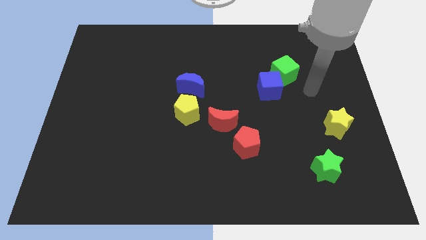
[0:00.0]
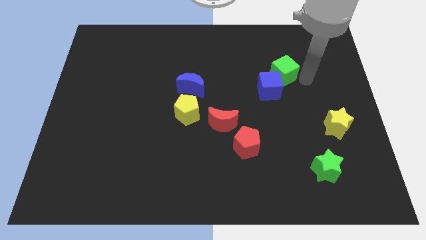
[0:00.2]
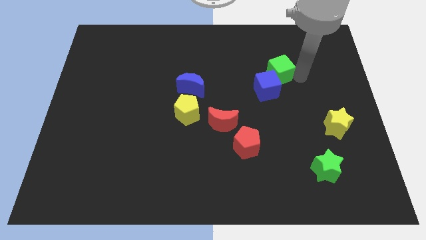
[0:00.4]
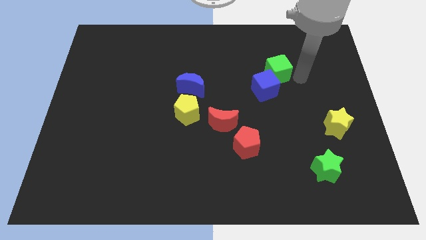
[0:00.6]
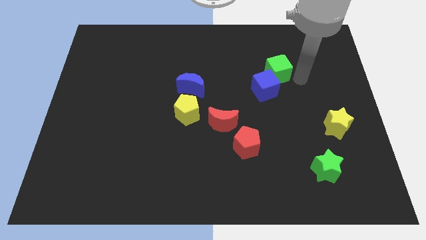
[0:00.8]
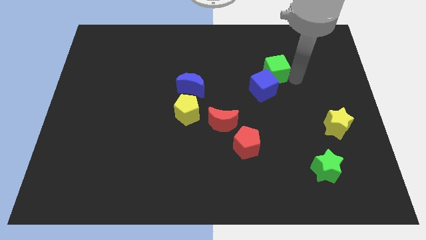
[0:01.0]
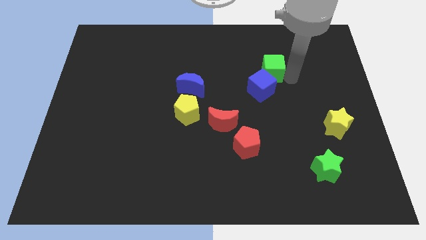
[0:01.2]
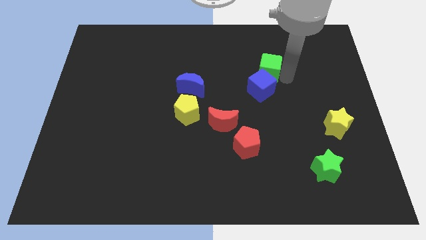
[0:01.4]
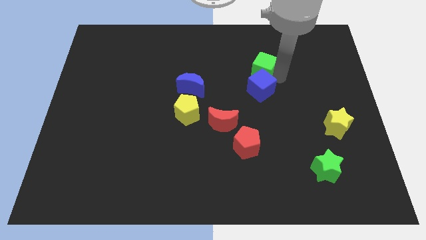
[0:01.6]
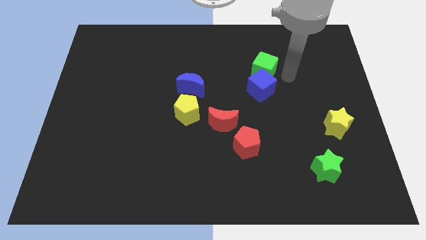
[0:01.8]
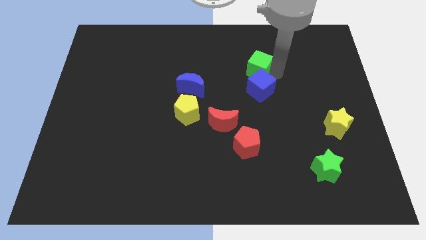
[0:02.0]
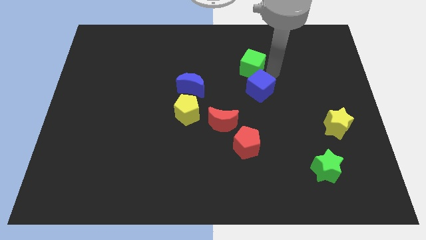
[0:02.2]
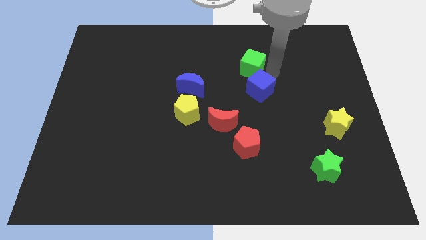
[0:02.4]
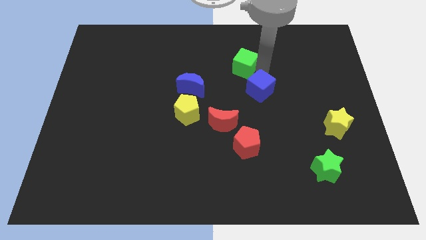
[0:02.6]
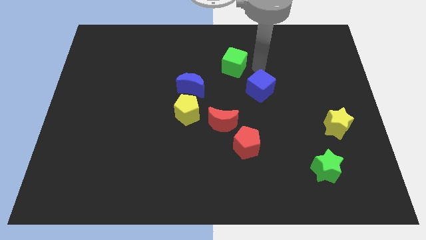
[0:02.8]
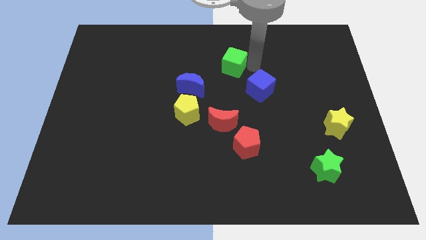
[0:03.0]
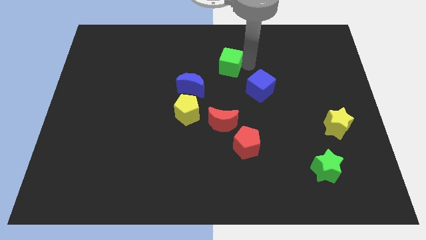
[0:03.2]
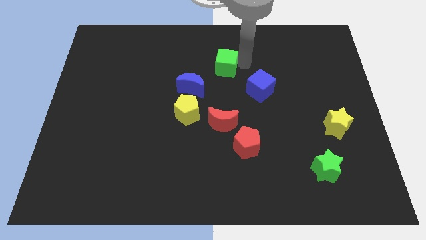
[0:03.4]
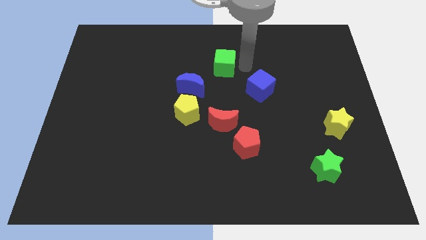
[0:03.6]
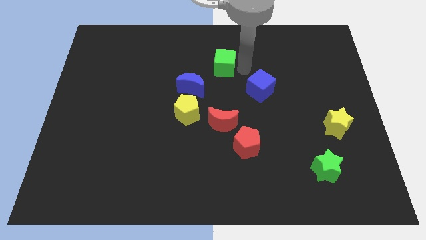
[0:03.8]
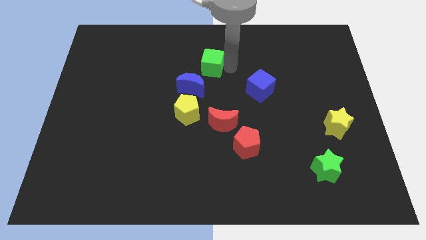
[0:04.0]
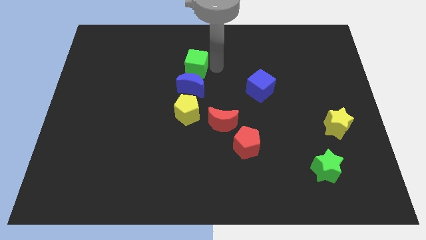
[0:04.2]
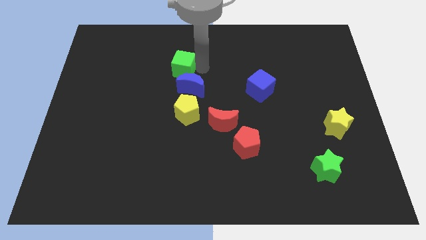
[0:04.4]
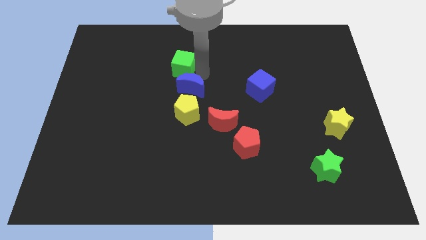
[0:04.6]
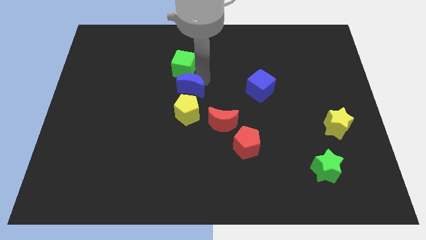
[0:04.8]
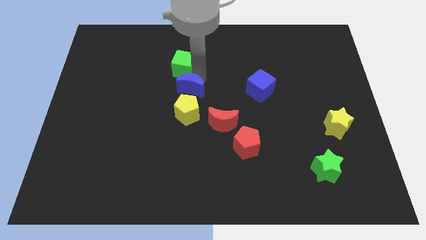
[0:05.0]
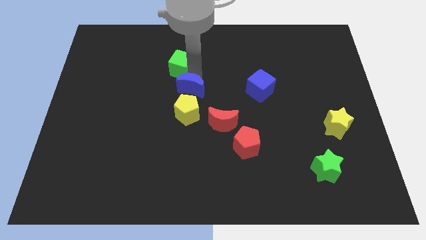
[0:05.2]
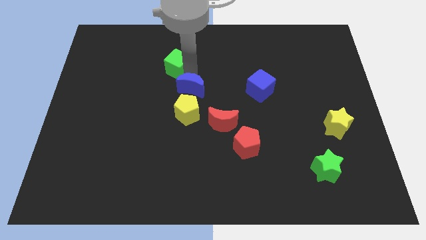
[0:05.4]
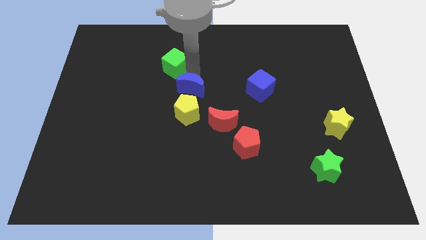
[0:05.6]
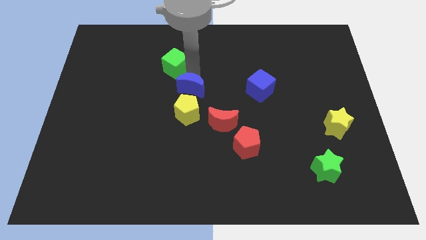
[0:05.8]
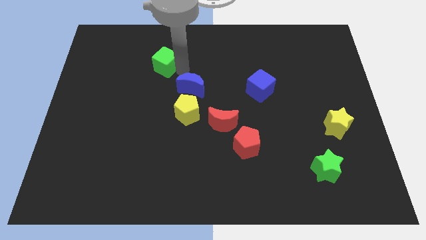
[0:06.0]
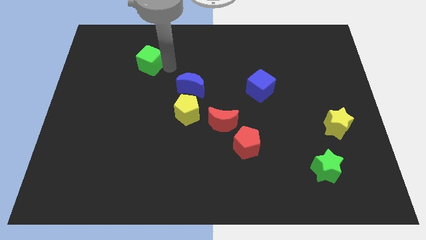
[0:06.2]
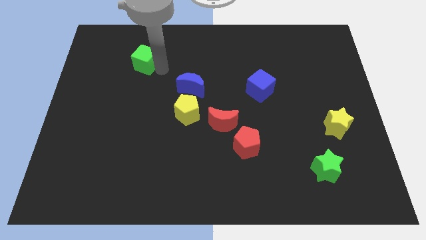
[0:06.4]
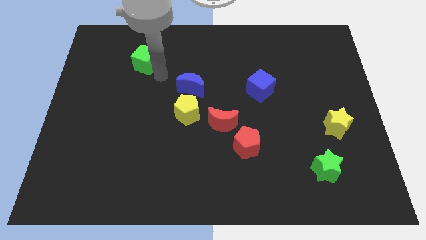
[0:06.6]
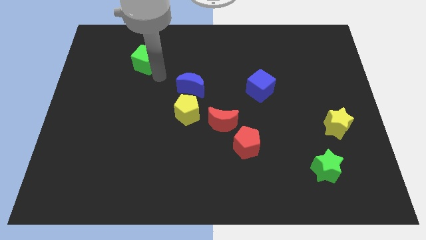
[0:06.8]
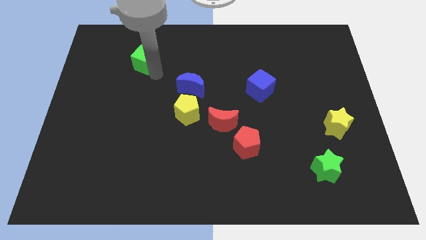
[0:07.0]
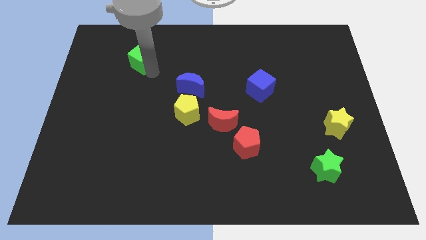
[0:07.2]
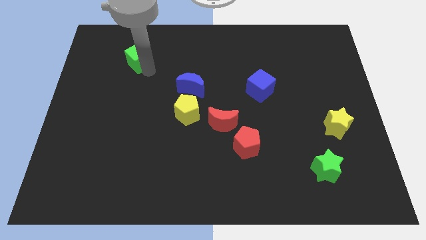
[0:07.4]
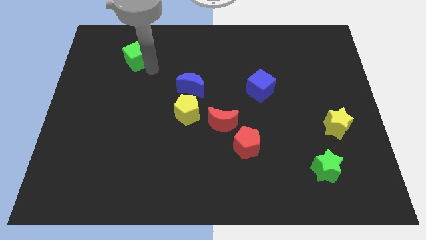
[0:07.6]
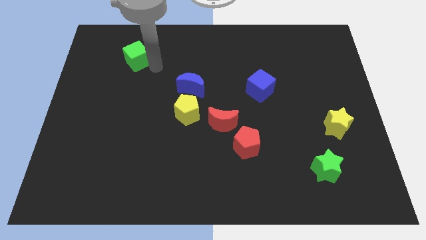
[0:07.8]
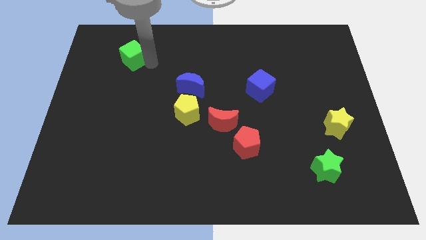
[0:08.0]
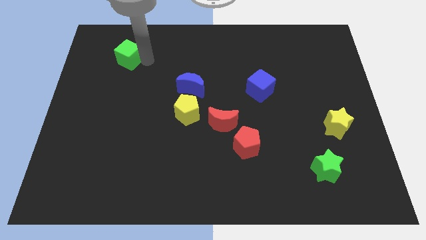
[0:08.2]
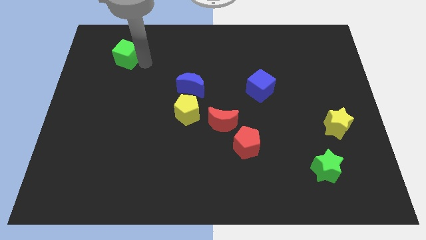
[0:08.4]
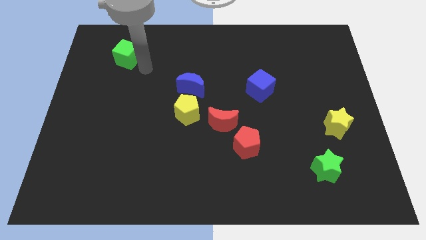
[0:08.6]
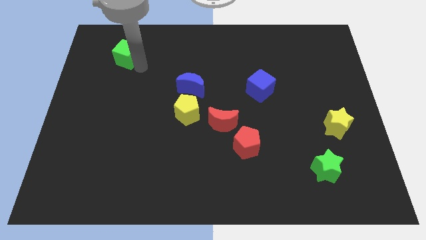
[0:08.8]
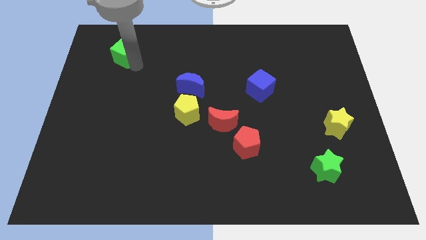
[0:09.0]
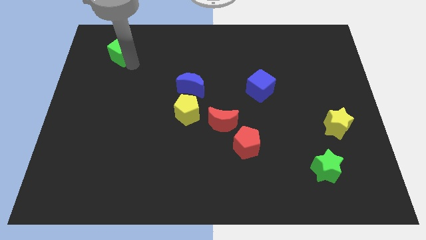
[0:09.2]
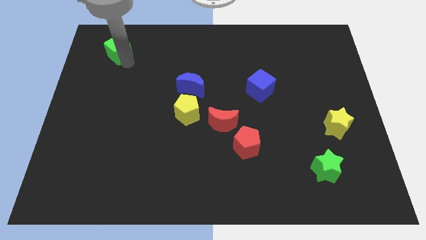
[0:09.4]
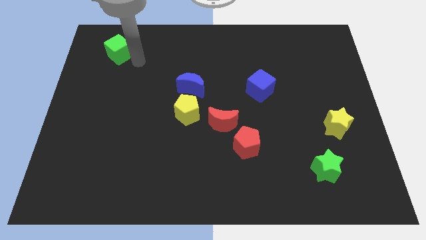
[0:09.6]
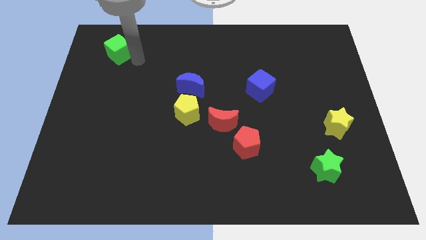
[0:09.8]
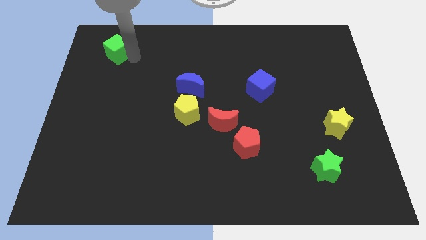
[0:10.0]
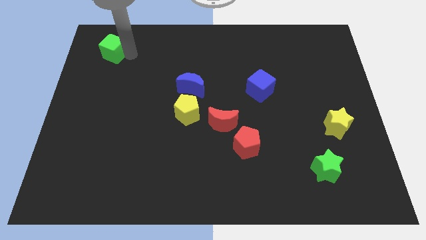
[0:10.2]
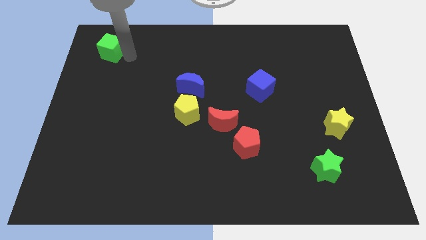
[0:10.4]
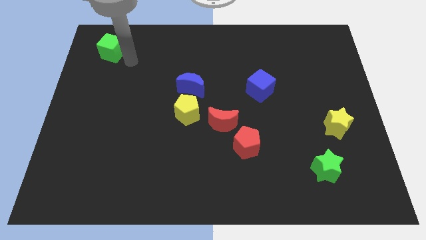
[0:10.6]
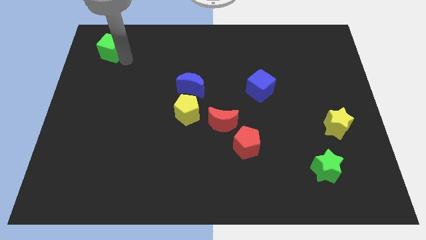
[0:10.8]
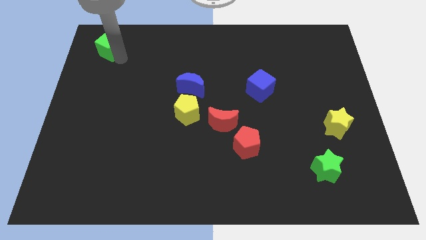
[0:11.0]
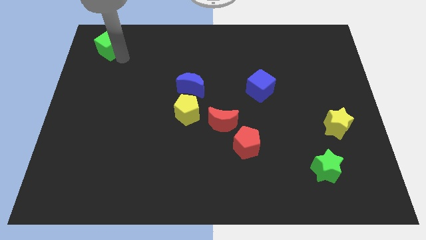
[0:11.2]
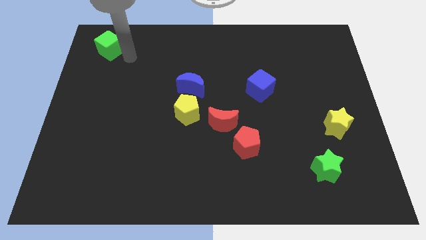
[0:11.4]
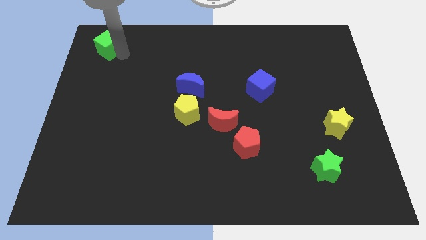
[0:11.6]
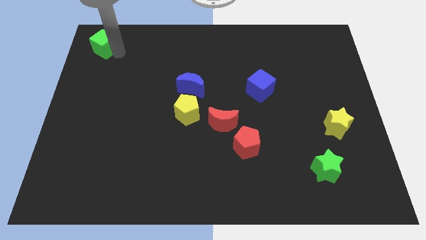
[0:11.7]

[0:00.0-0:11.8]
push the green cube to the top left

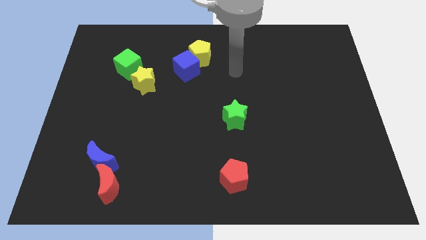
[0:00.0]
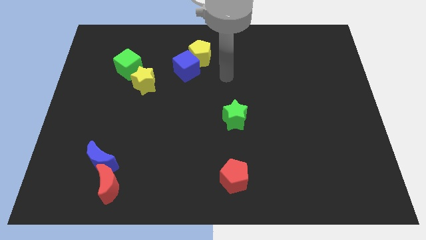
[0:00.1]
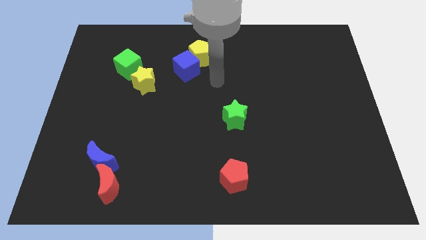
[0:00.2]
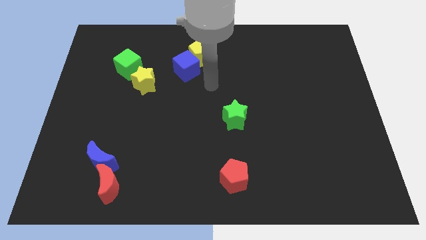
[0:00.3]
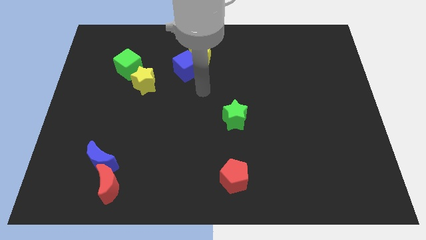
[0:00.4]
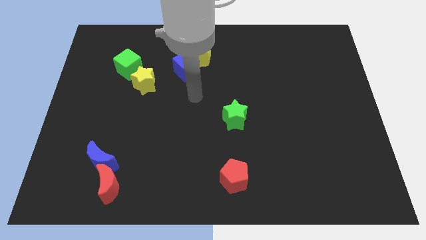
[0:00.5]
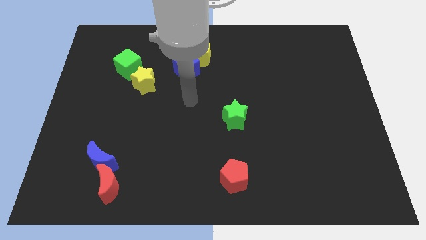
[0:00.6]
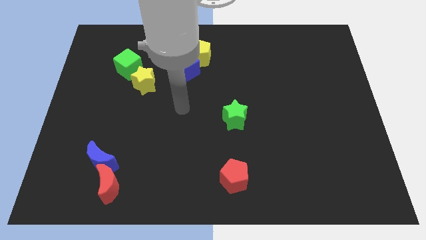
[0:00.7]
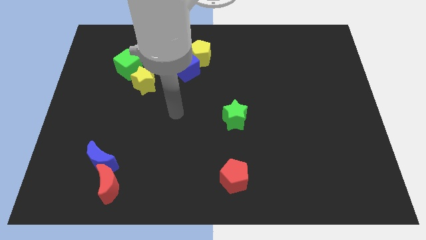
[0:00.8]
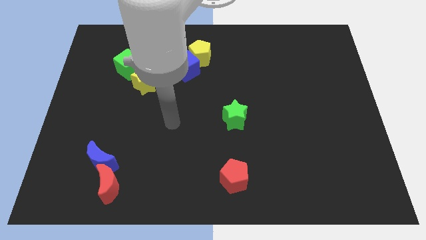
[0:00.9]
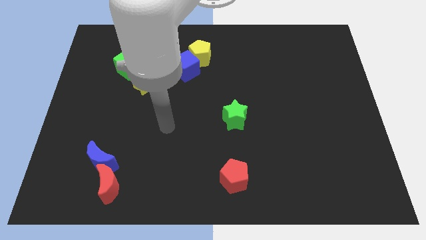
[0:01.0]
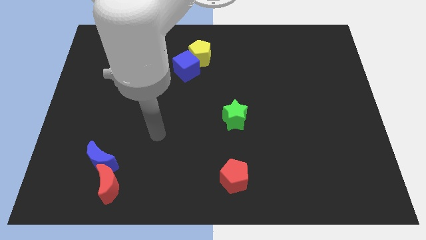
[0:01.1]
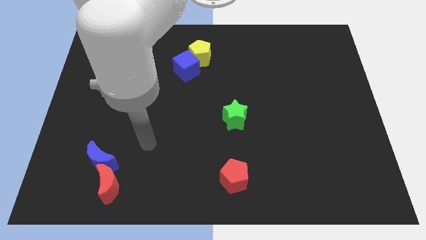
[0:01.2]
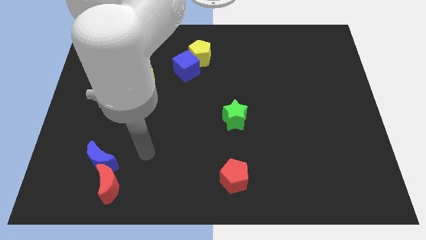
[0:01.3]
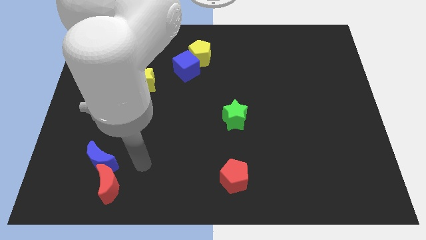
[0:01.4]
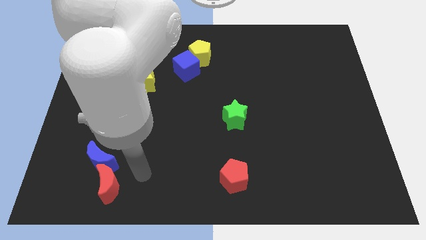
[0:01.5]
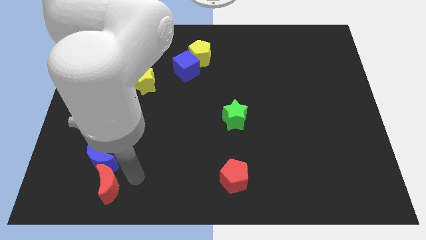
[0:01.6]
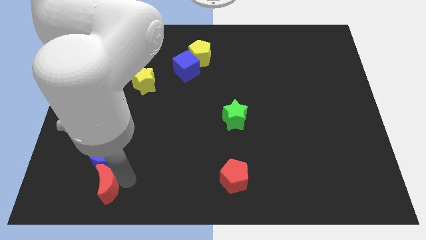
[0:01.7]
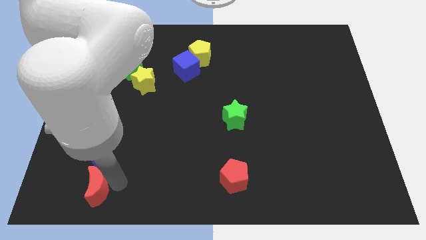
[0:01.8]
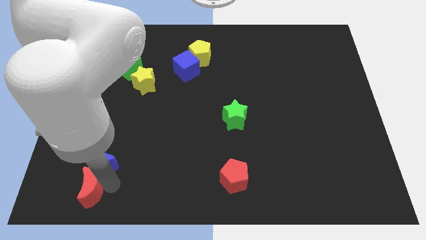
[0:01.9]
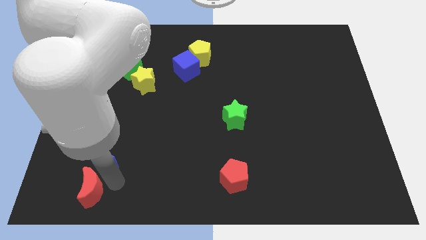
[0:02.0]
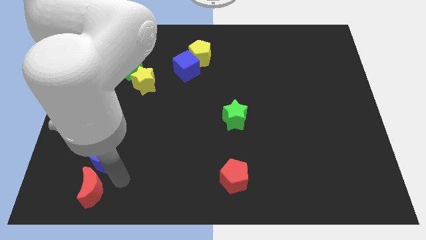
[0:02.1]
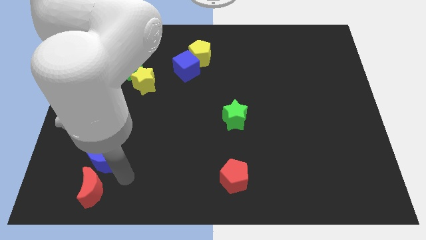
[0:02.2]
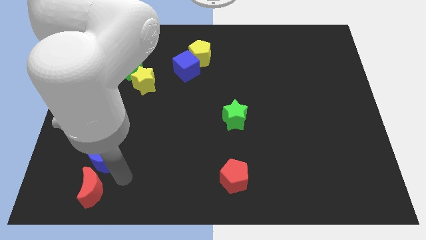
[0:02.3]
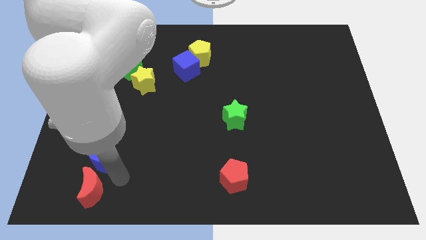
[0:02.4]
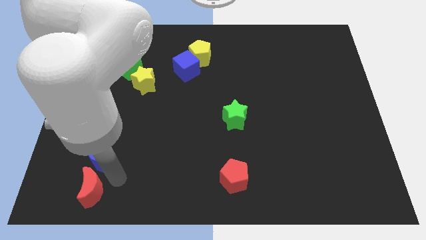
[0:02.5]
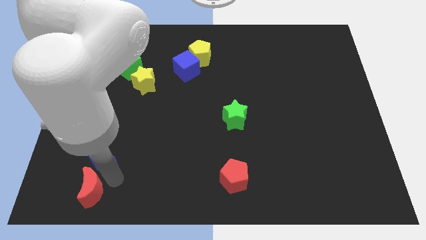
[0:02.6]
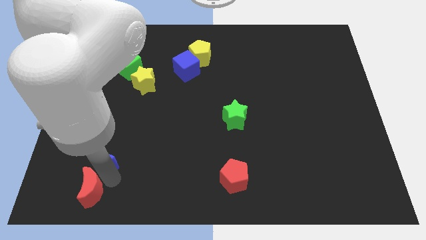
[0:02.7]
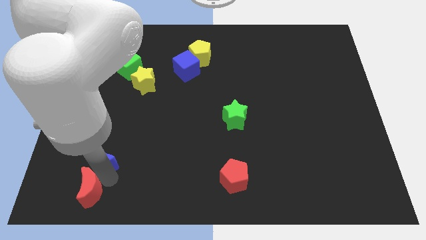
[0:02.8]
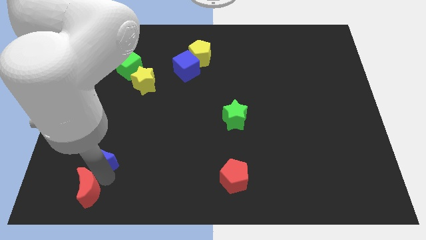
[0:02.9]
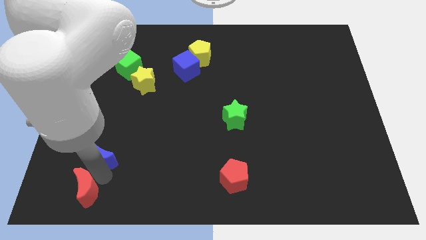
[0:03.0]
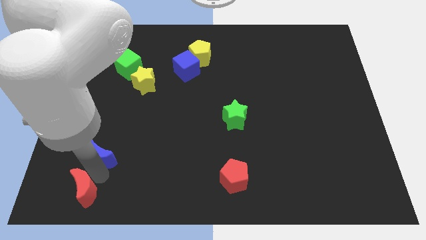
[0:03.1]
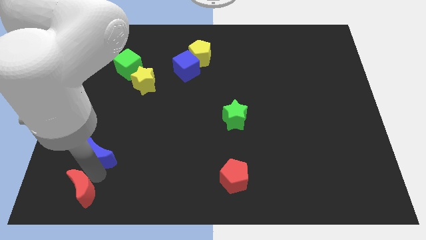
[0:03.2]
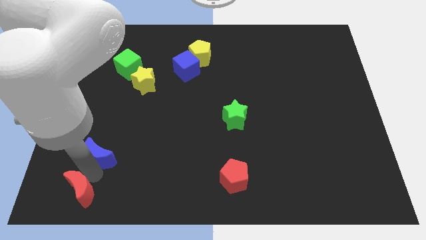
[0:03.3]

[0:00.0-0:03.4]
push the red moon to the bottom left of the board
